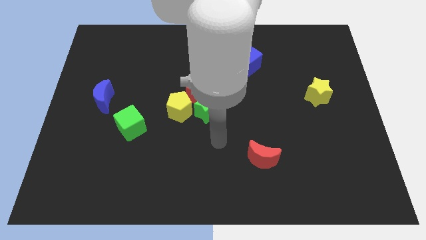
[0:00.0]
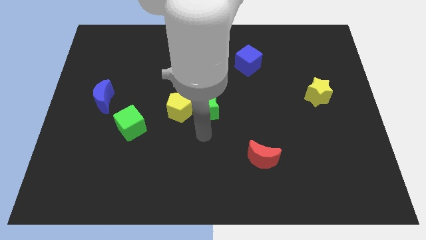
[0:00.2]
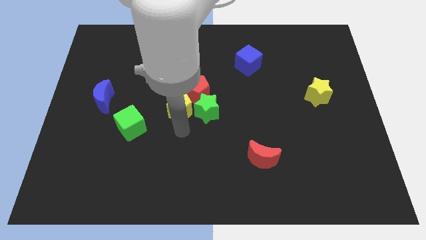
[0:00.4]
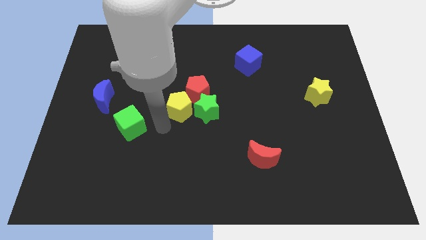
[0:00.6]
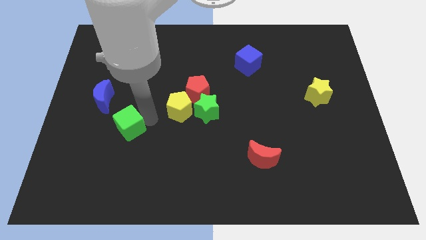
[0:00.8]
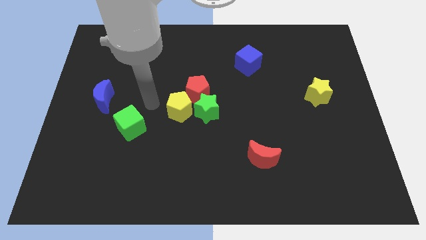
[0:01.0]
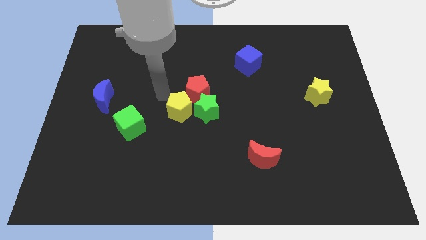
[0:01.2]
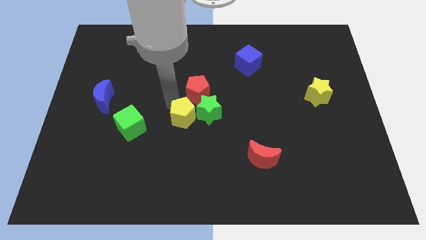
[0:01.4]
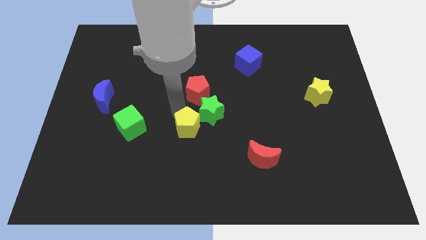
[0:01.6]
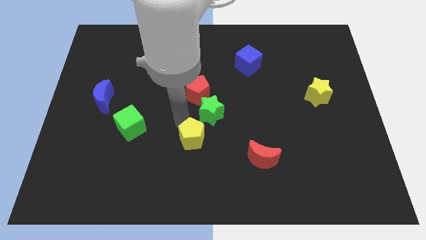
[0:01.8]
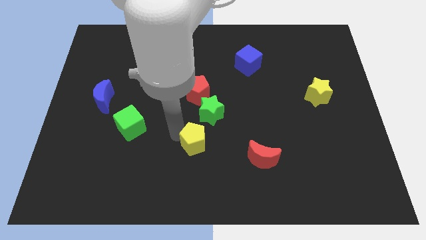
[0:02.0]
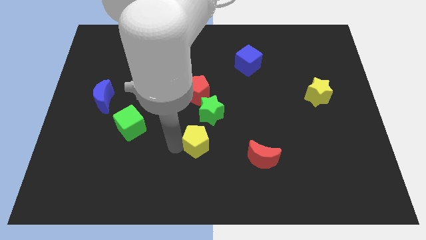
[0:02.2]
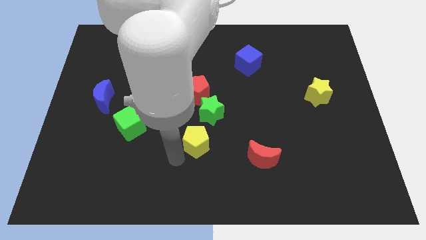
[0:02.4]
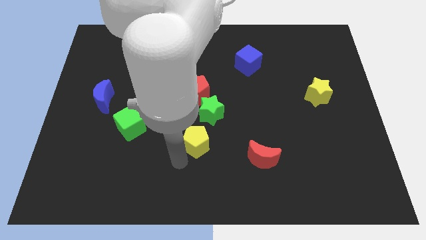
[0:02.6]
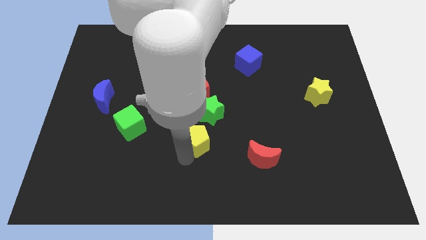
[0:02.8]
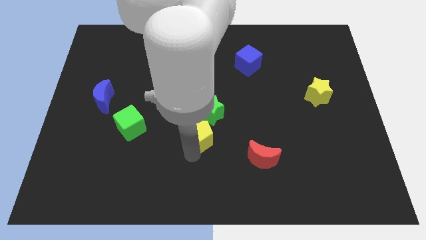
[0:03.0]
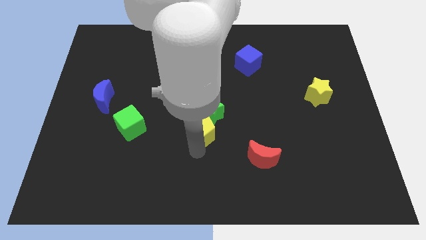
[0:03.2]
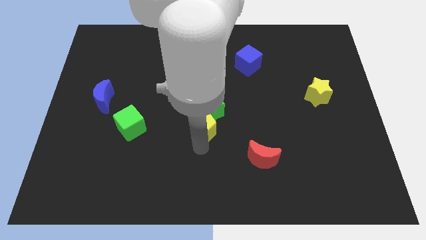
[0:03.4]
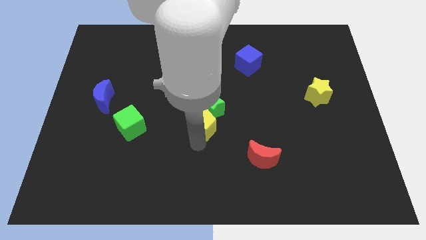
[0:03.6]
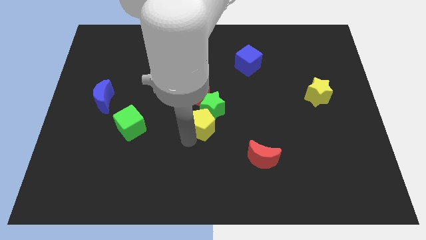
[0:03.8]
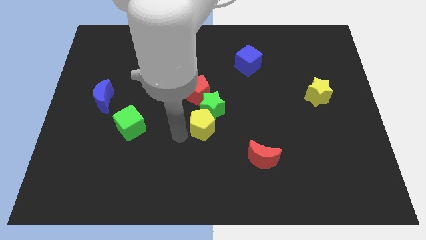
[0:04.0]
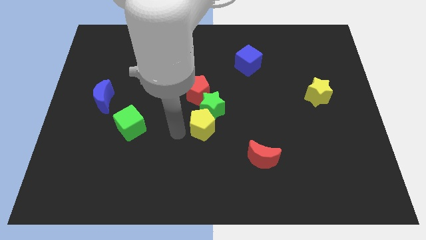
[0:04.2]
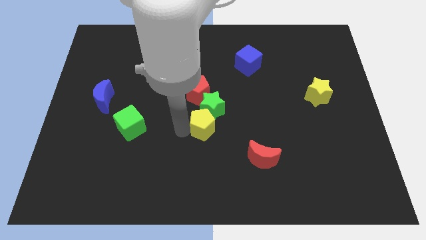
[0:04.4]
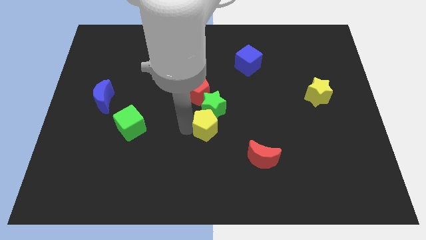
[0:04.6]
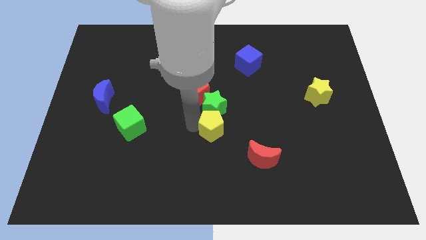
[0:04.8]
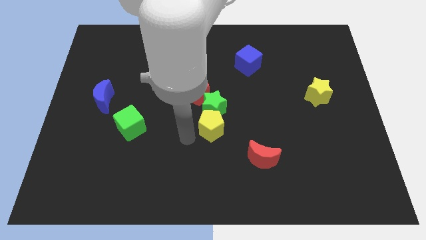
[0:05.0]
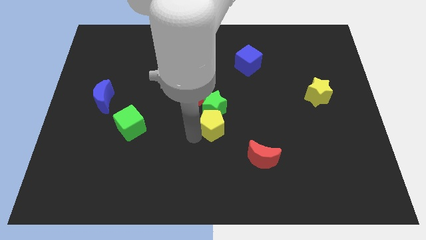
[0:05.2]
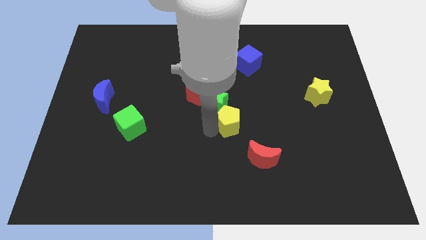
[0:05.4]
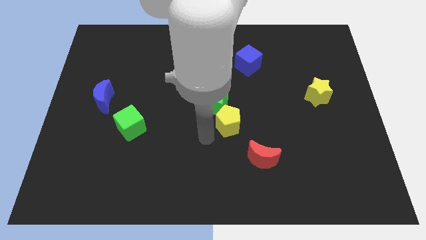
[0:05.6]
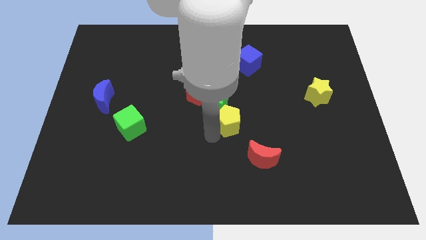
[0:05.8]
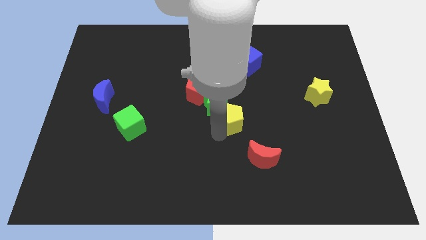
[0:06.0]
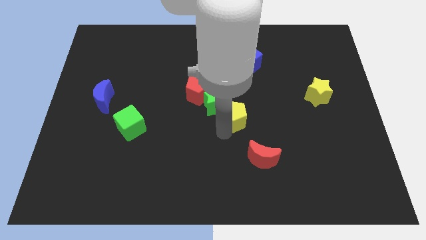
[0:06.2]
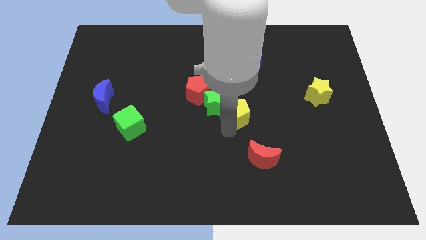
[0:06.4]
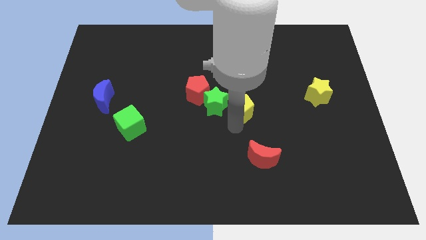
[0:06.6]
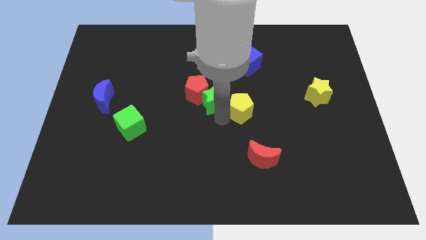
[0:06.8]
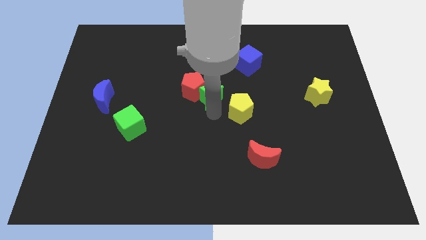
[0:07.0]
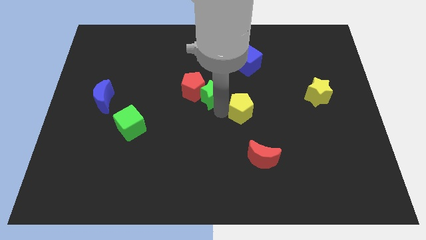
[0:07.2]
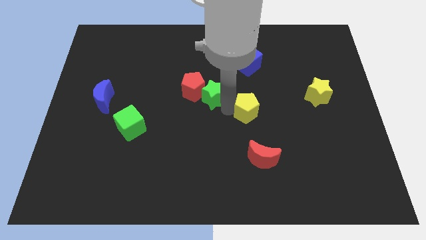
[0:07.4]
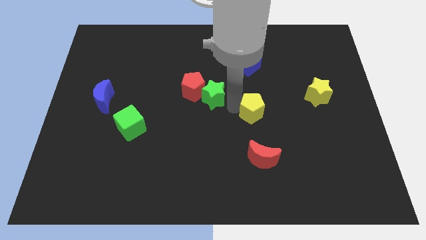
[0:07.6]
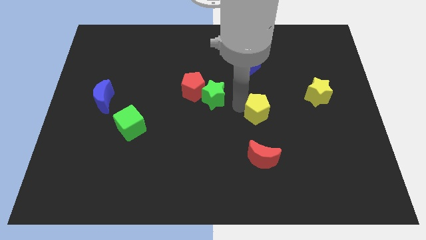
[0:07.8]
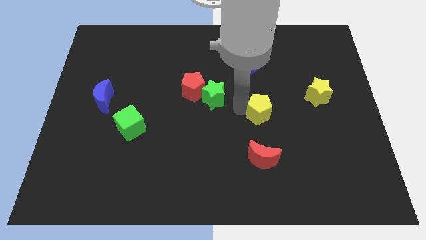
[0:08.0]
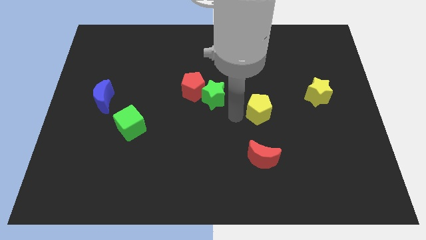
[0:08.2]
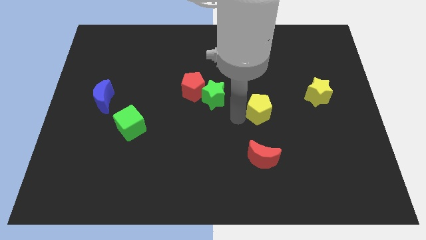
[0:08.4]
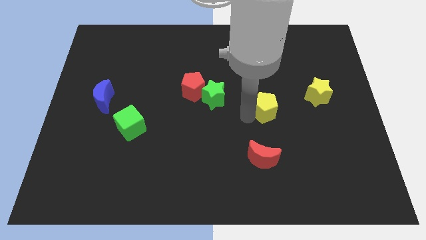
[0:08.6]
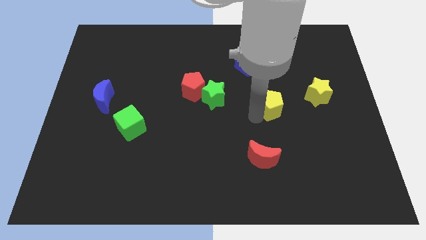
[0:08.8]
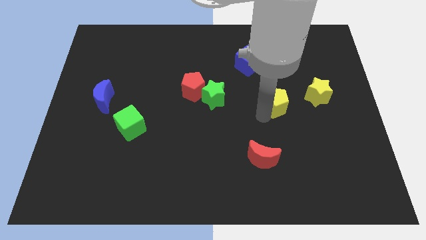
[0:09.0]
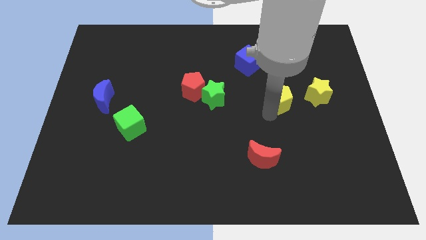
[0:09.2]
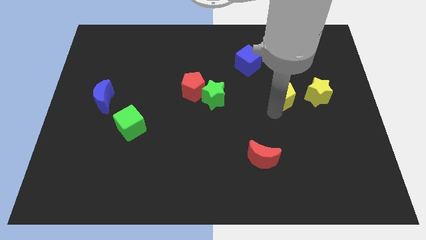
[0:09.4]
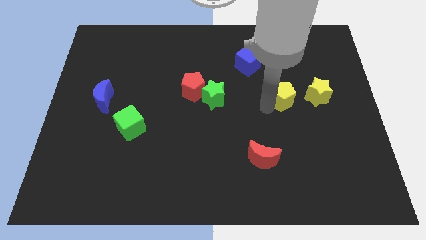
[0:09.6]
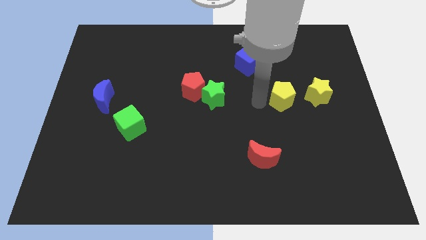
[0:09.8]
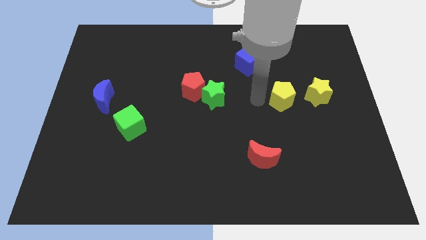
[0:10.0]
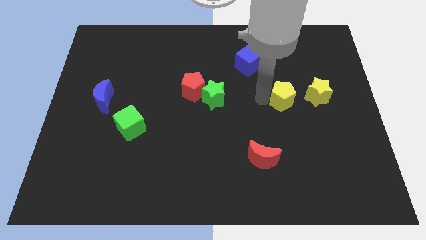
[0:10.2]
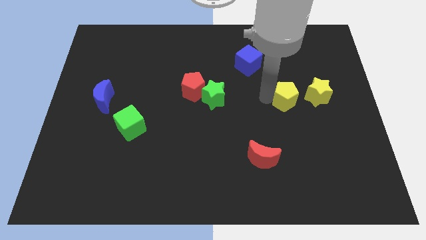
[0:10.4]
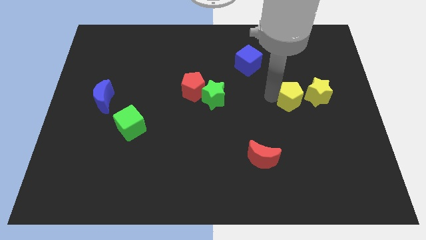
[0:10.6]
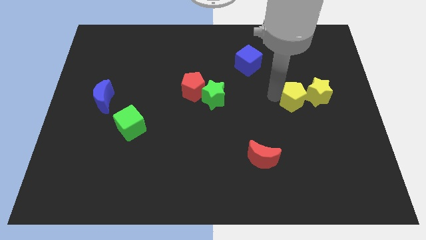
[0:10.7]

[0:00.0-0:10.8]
move the yellow pentagon close to the yellow star

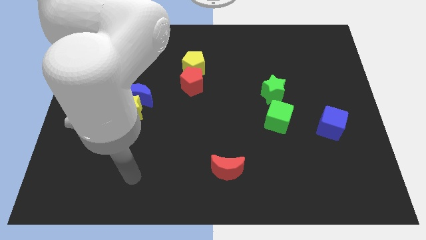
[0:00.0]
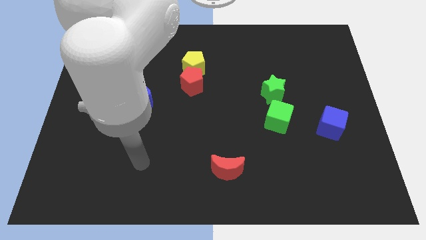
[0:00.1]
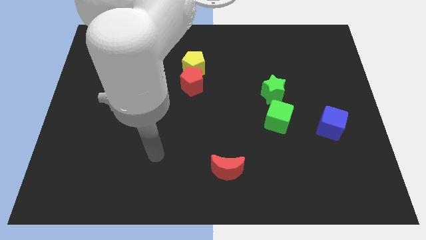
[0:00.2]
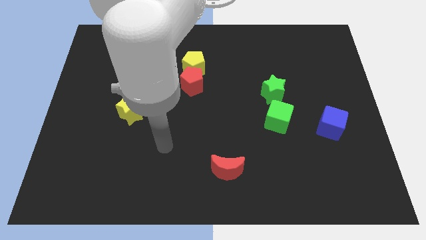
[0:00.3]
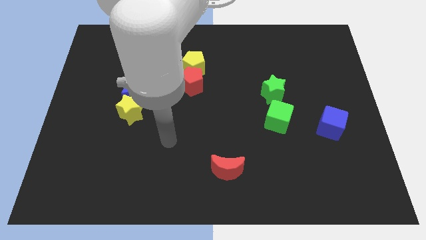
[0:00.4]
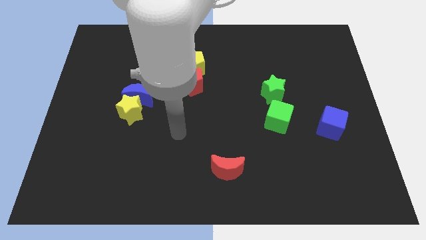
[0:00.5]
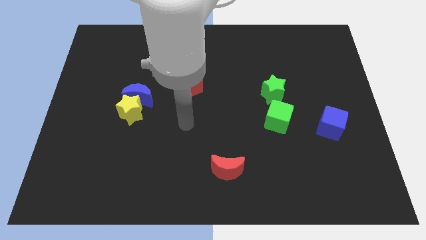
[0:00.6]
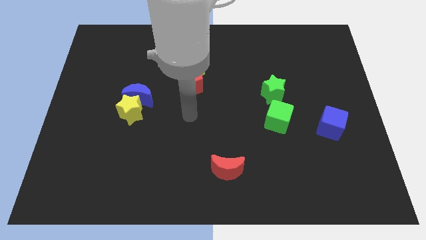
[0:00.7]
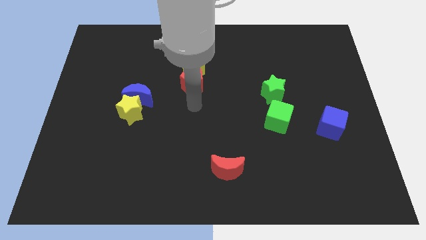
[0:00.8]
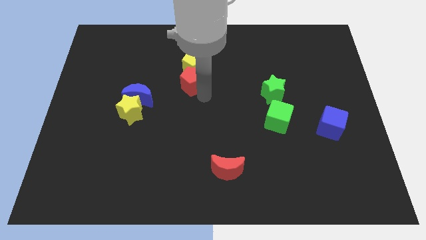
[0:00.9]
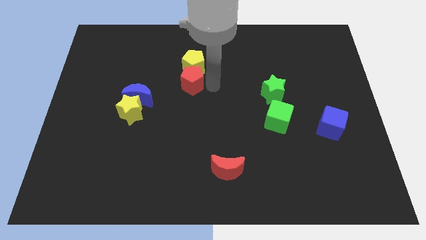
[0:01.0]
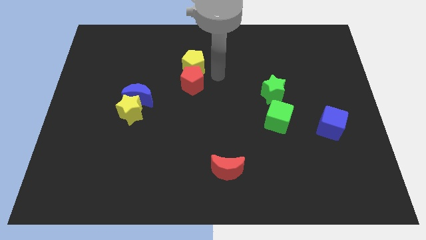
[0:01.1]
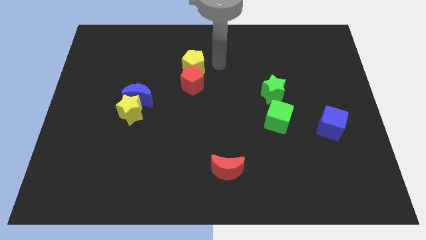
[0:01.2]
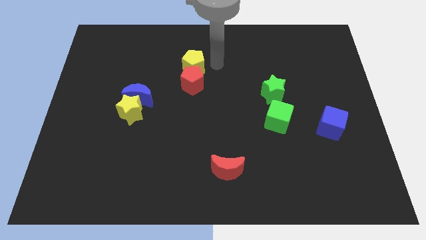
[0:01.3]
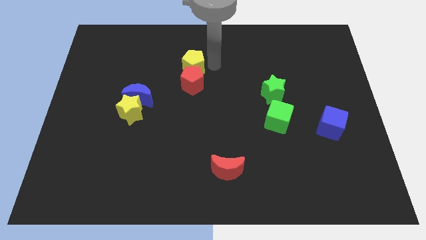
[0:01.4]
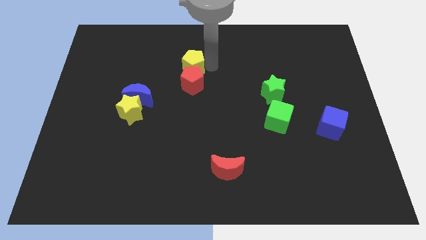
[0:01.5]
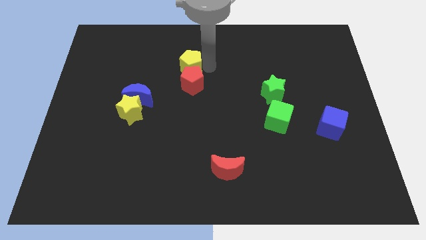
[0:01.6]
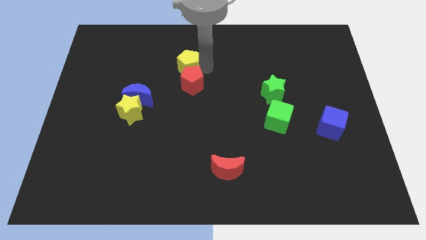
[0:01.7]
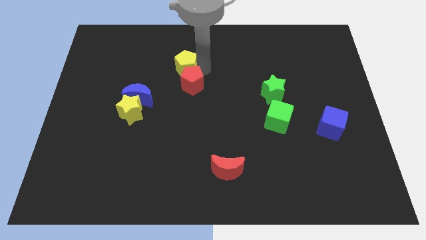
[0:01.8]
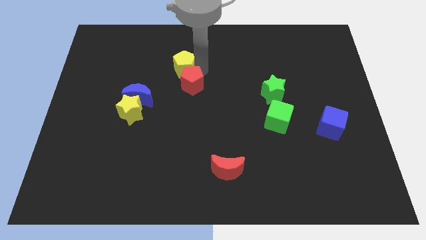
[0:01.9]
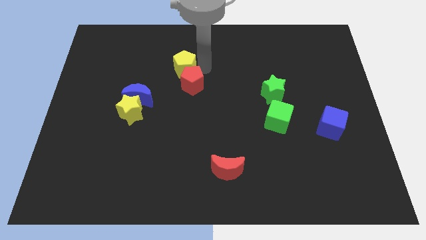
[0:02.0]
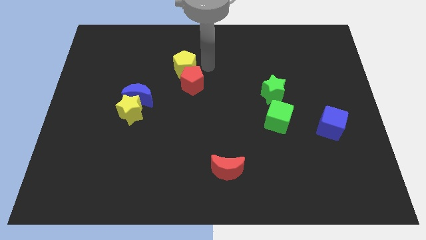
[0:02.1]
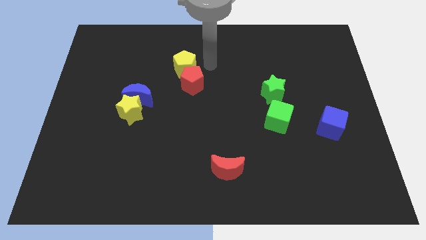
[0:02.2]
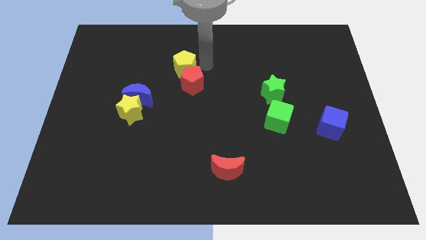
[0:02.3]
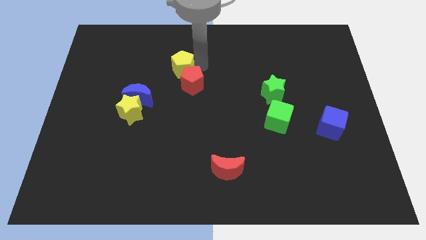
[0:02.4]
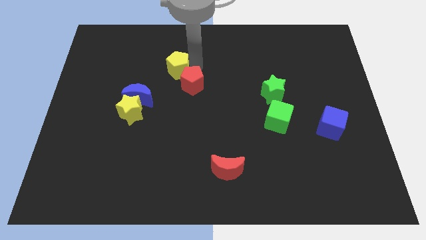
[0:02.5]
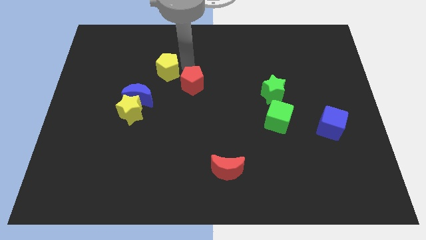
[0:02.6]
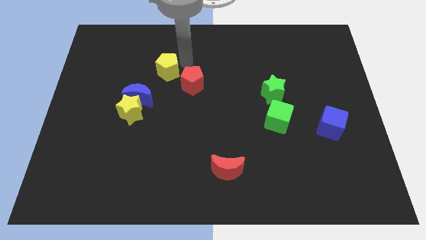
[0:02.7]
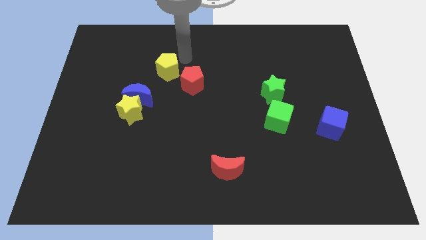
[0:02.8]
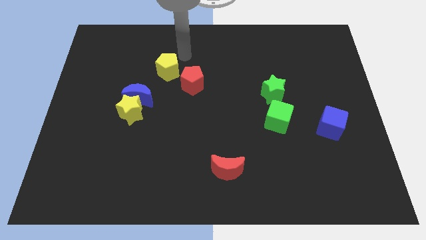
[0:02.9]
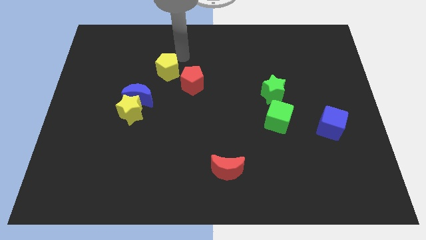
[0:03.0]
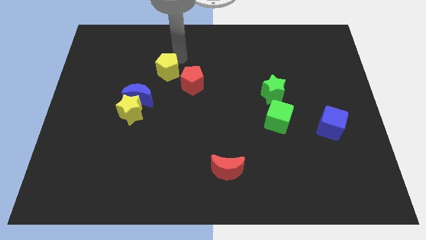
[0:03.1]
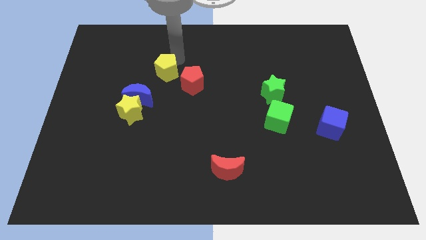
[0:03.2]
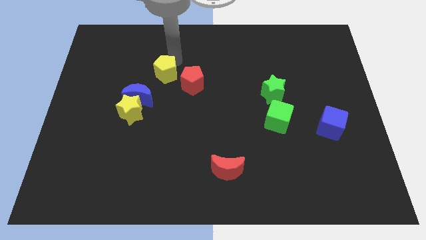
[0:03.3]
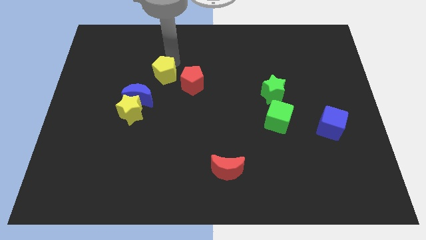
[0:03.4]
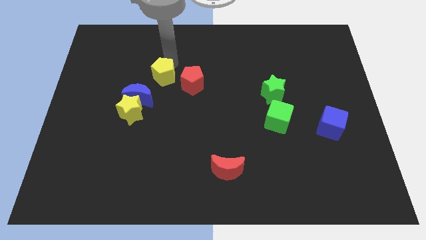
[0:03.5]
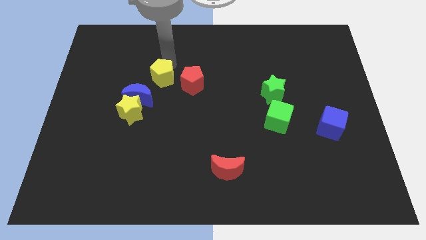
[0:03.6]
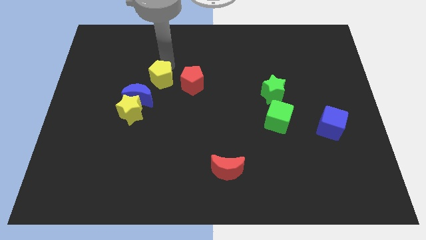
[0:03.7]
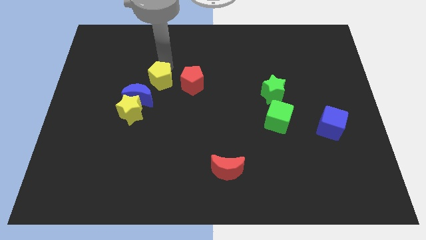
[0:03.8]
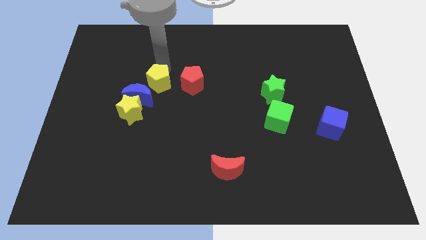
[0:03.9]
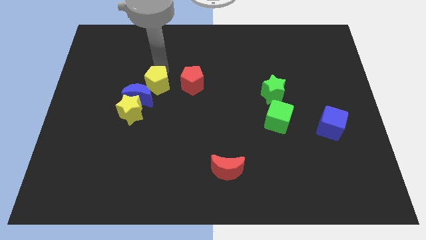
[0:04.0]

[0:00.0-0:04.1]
slide the yellow pentagon to the blue moon
